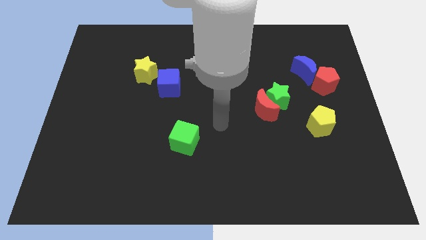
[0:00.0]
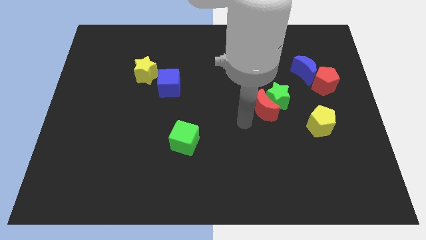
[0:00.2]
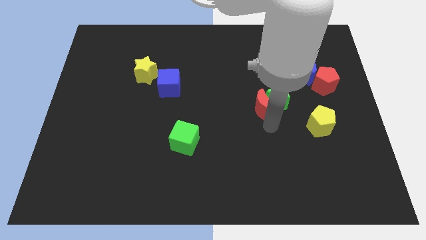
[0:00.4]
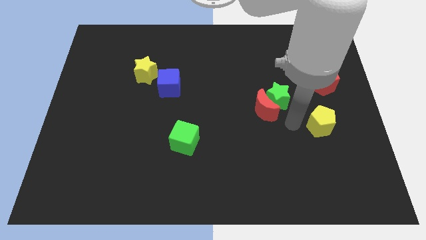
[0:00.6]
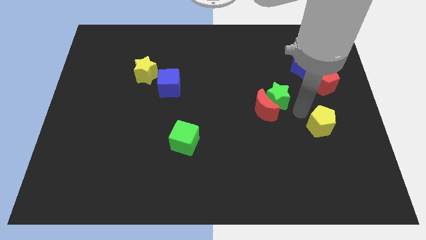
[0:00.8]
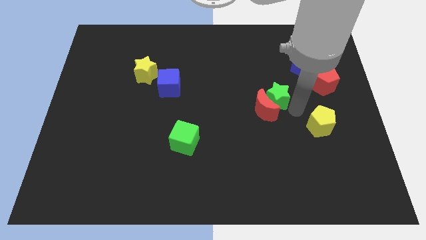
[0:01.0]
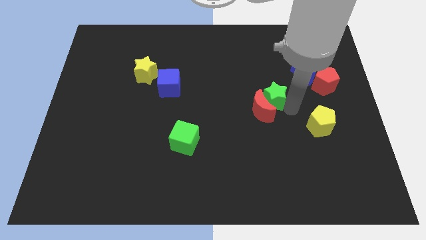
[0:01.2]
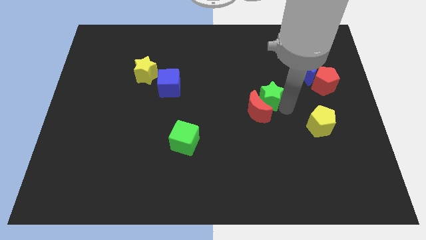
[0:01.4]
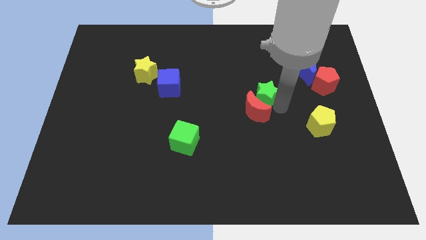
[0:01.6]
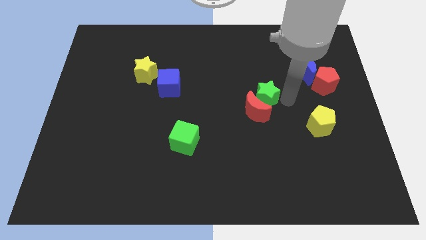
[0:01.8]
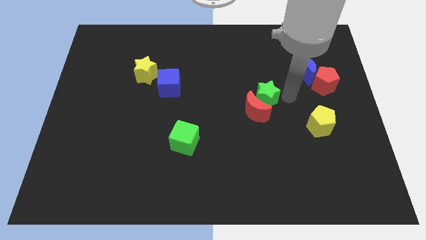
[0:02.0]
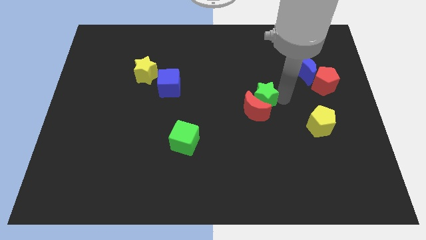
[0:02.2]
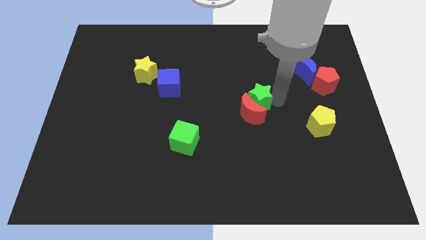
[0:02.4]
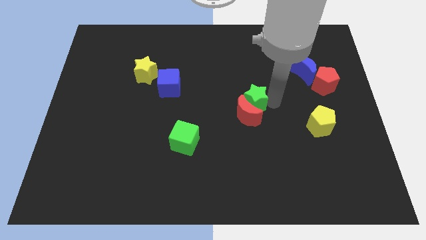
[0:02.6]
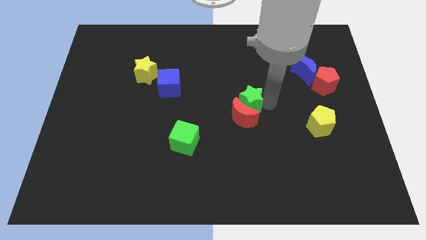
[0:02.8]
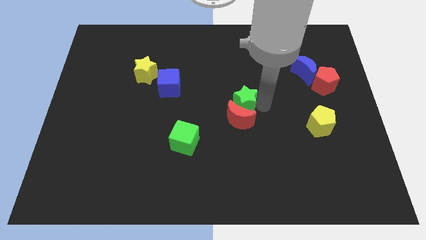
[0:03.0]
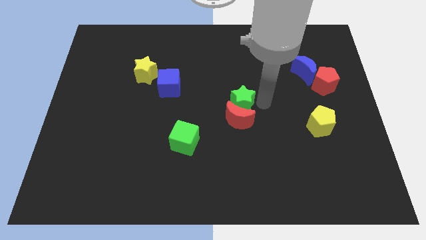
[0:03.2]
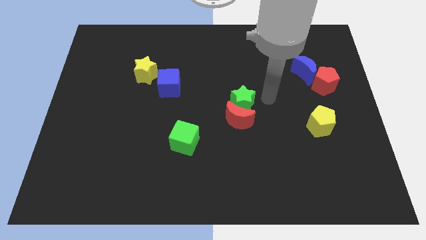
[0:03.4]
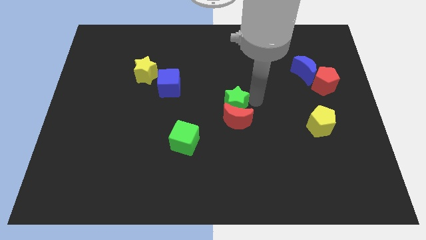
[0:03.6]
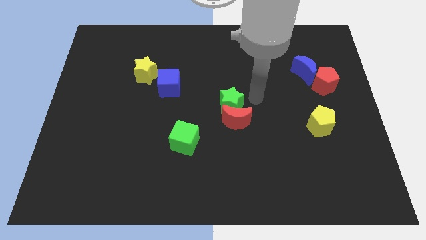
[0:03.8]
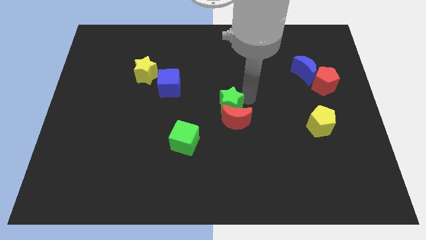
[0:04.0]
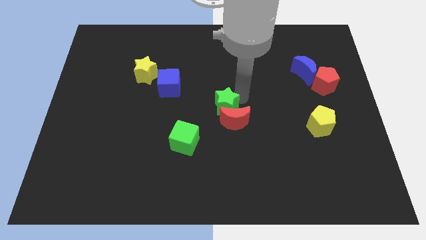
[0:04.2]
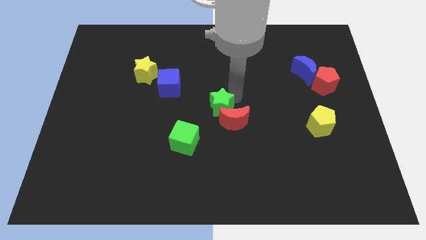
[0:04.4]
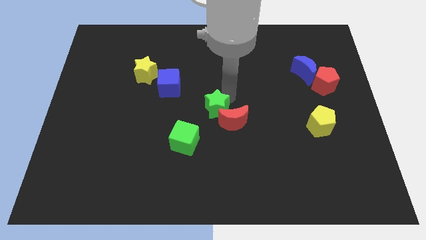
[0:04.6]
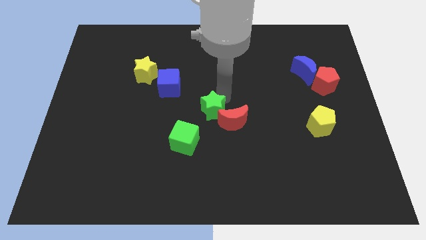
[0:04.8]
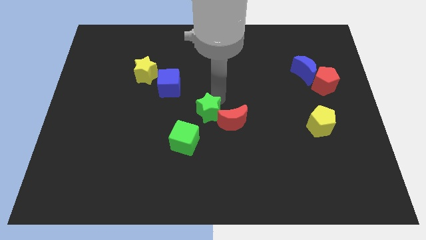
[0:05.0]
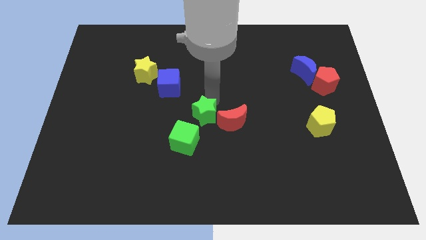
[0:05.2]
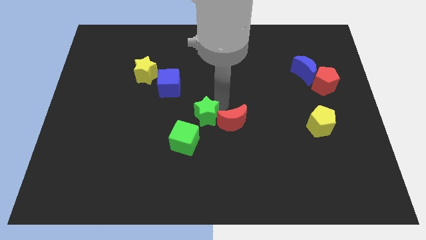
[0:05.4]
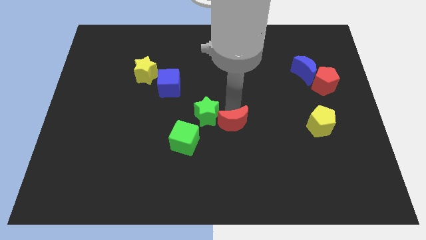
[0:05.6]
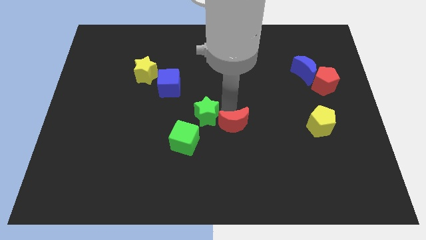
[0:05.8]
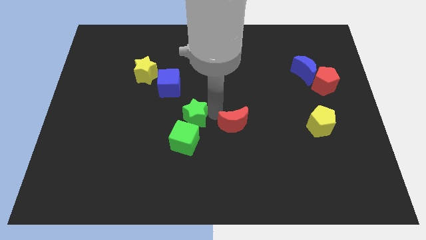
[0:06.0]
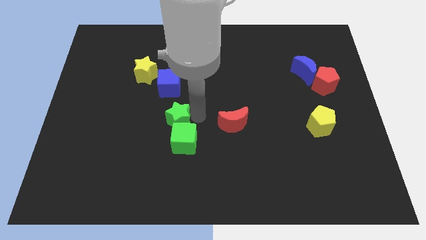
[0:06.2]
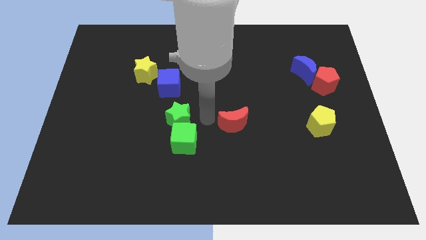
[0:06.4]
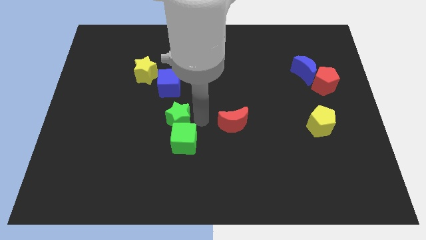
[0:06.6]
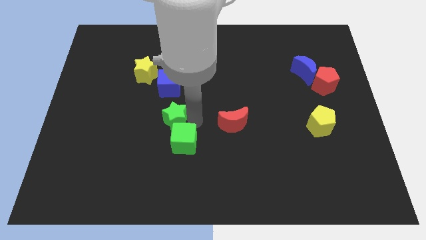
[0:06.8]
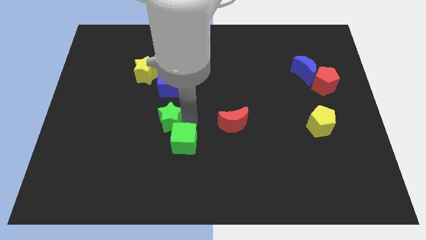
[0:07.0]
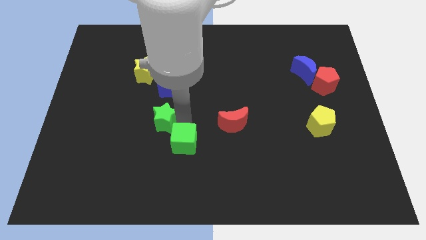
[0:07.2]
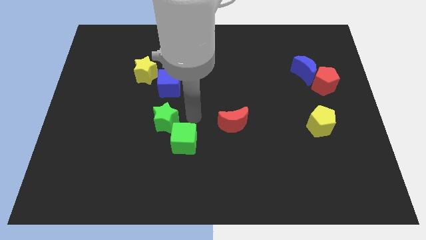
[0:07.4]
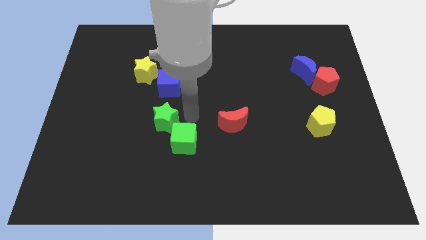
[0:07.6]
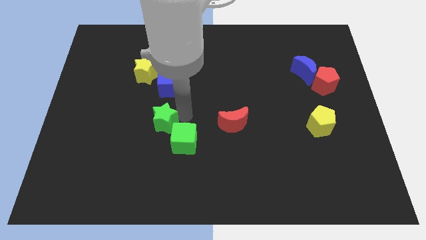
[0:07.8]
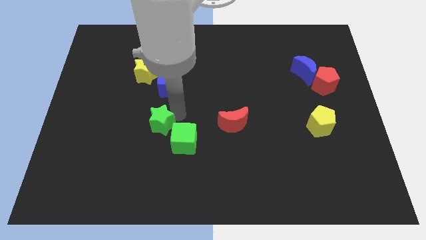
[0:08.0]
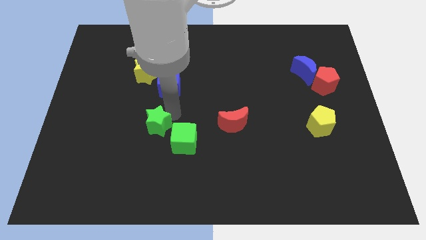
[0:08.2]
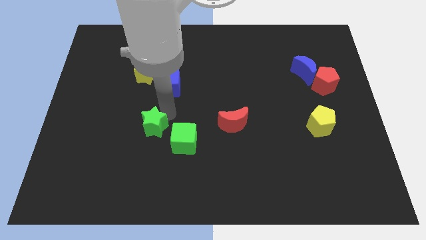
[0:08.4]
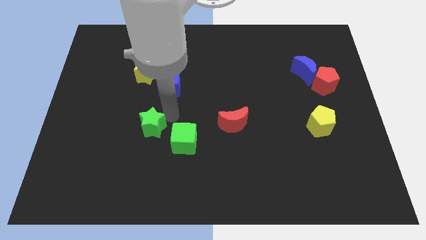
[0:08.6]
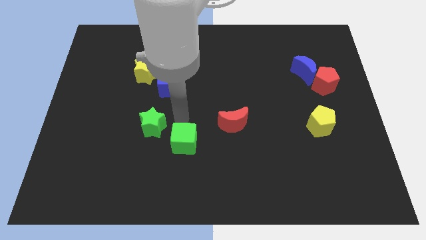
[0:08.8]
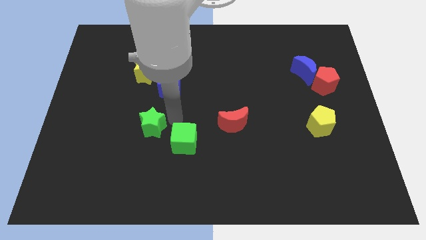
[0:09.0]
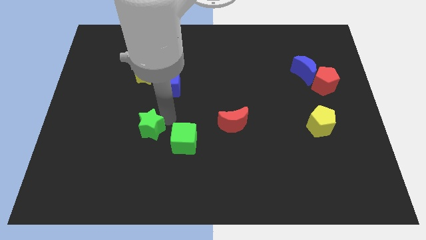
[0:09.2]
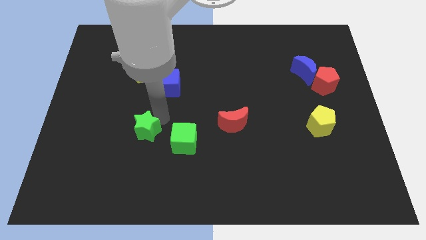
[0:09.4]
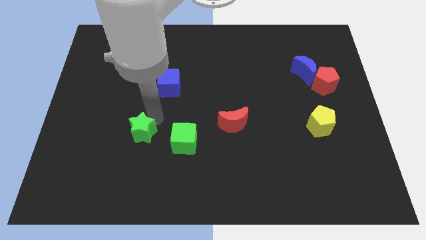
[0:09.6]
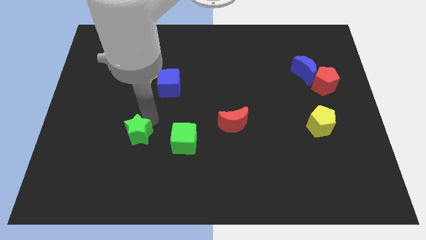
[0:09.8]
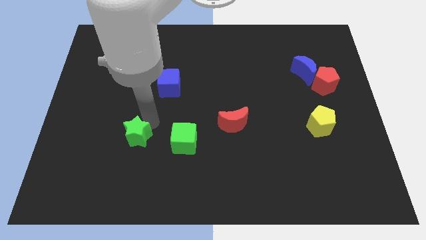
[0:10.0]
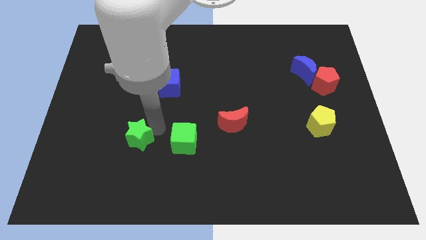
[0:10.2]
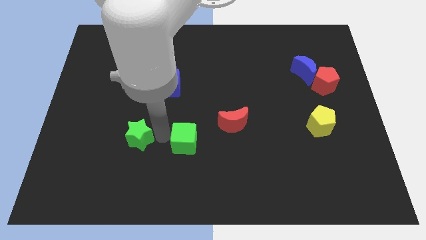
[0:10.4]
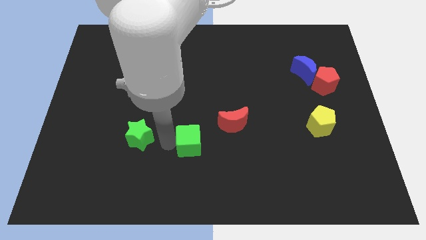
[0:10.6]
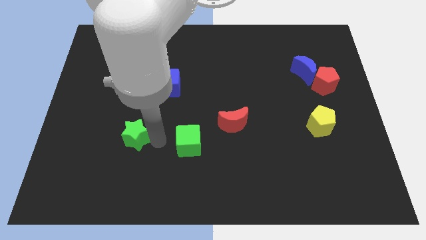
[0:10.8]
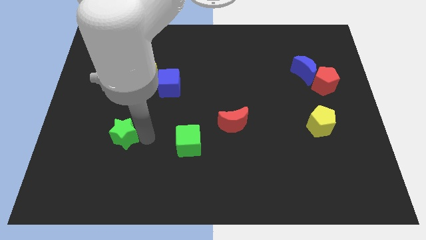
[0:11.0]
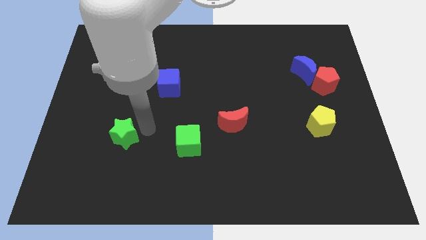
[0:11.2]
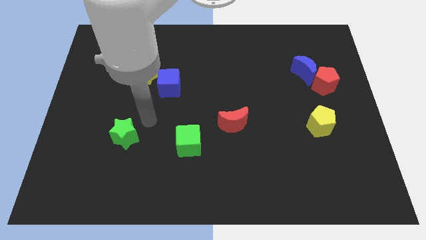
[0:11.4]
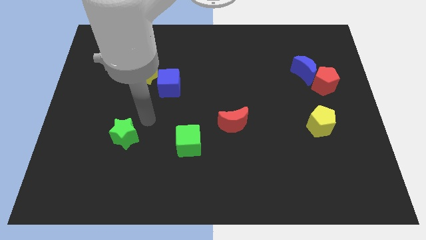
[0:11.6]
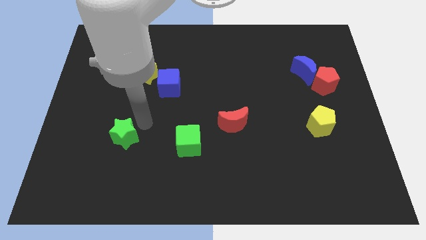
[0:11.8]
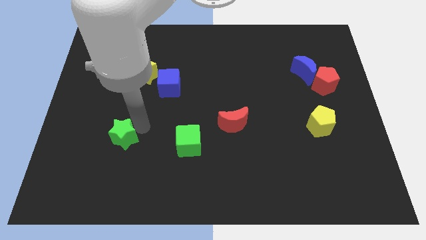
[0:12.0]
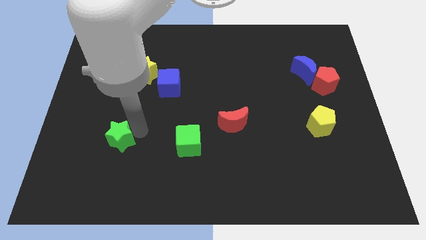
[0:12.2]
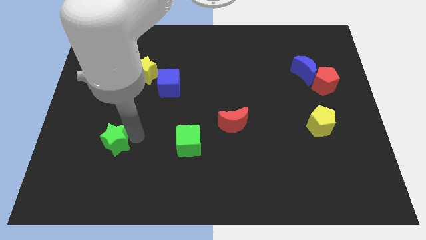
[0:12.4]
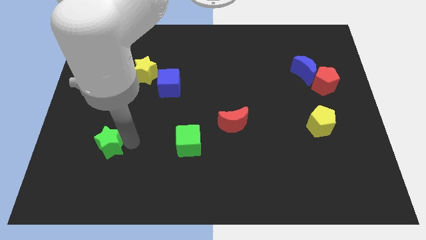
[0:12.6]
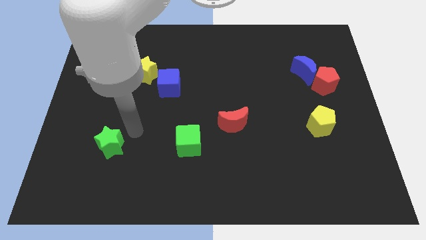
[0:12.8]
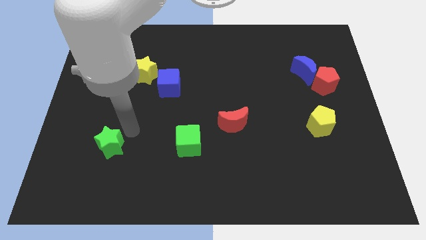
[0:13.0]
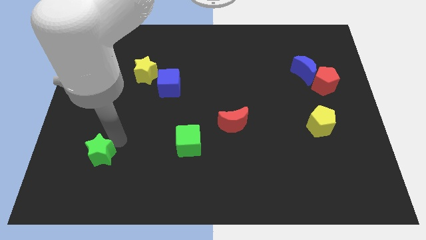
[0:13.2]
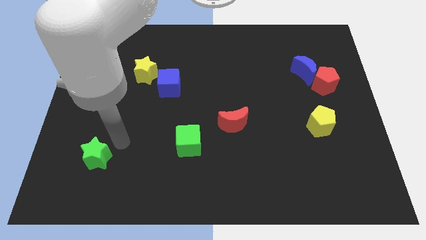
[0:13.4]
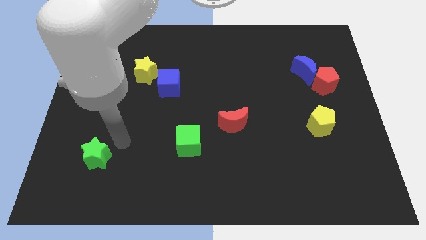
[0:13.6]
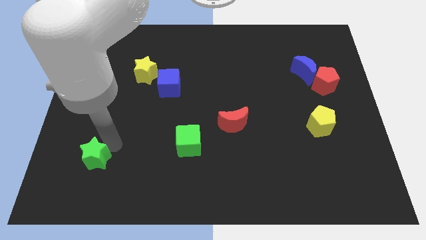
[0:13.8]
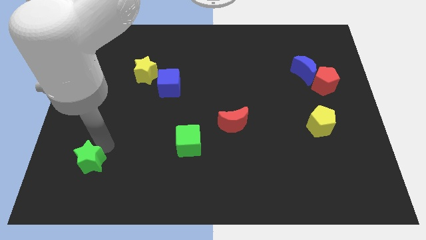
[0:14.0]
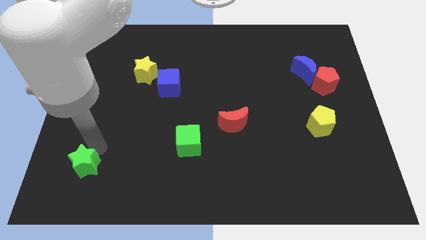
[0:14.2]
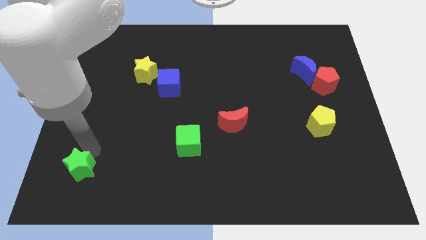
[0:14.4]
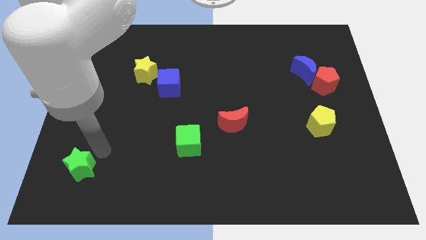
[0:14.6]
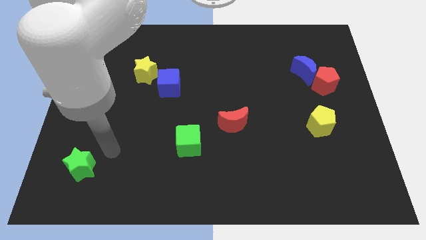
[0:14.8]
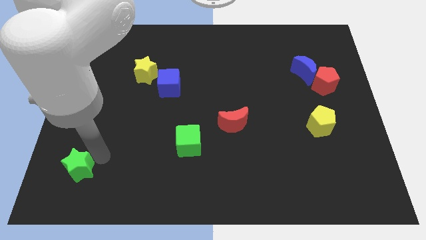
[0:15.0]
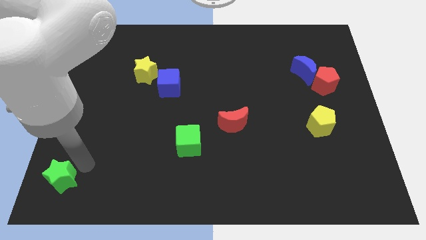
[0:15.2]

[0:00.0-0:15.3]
push the green star to the bottom left of the board

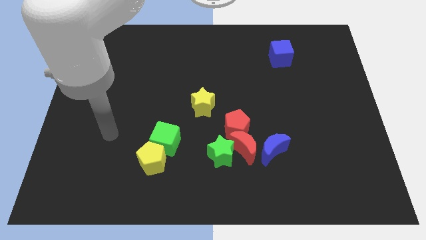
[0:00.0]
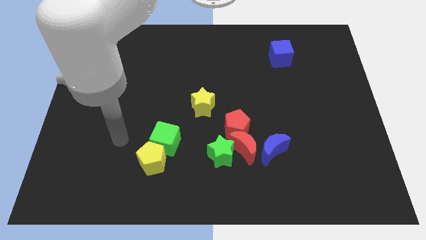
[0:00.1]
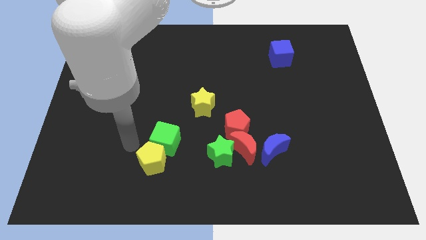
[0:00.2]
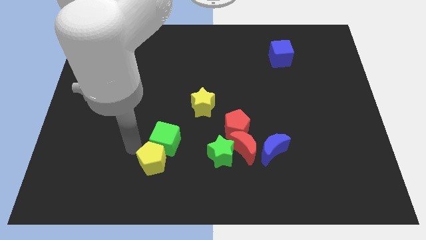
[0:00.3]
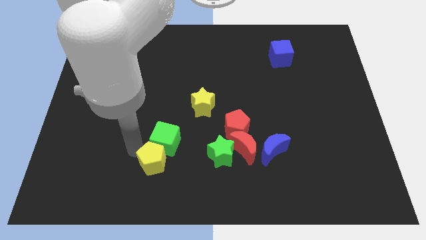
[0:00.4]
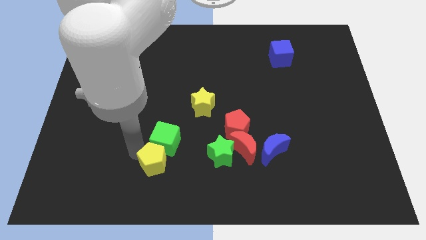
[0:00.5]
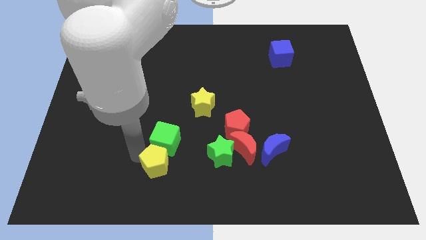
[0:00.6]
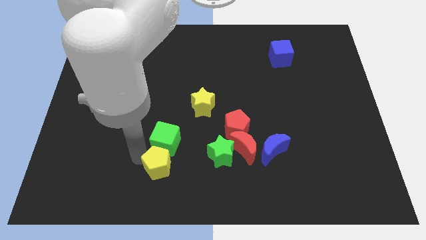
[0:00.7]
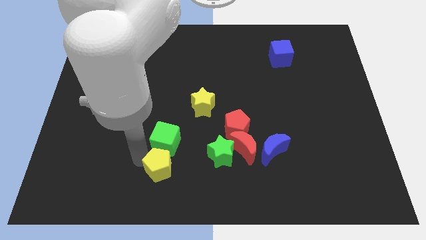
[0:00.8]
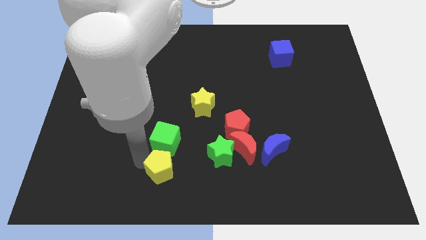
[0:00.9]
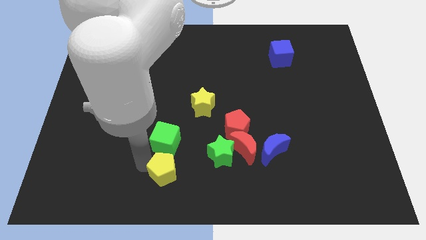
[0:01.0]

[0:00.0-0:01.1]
push the yellow pentagon to the bottom
